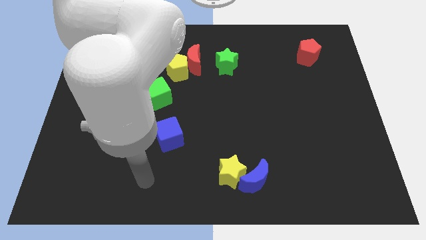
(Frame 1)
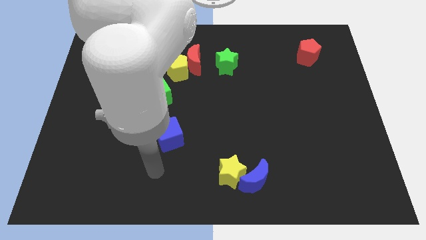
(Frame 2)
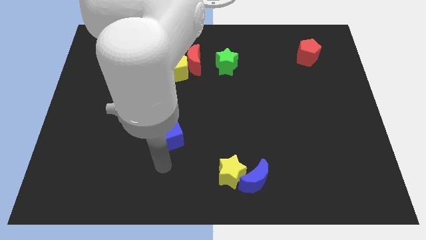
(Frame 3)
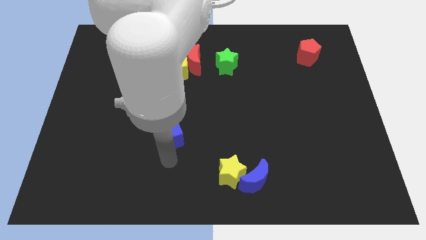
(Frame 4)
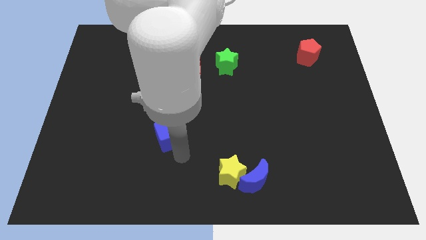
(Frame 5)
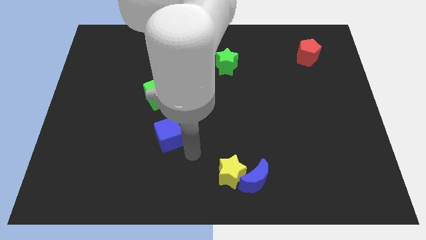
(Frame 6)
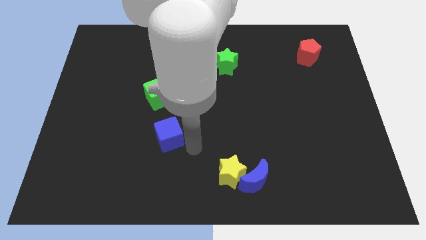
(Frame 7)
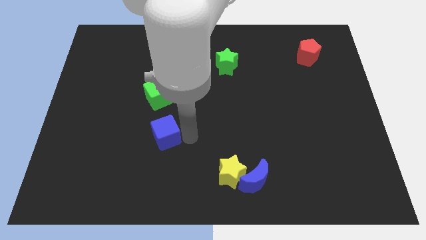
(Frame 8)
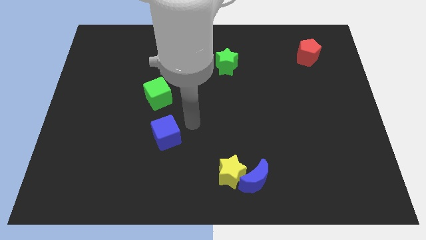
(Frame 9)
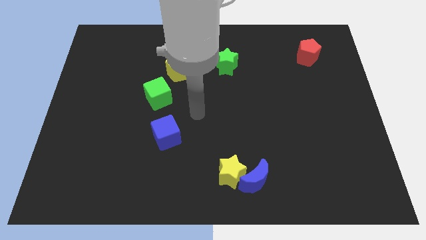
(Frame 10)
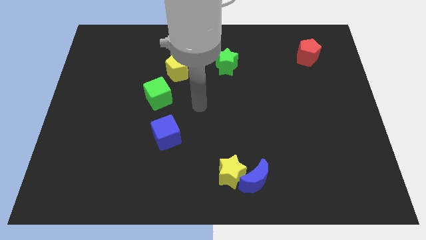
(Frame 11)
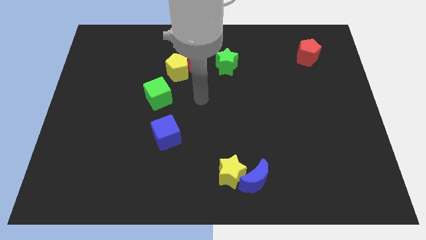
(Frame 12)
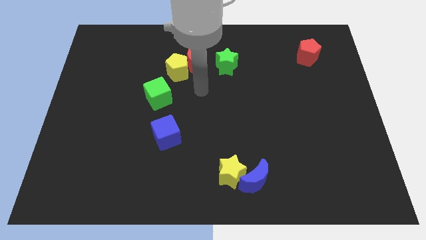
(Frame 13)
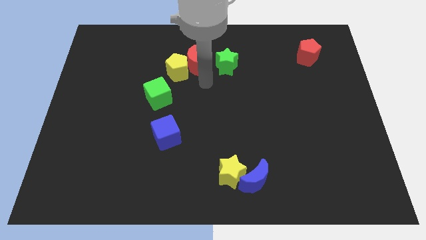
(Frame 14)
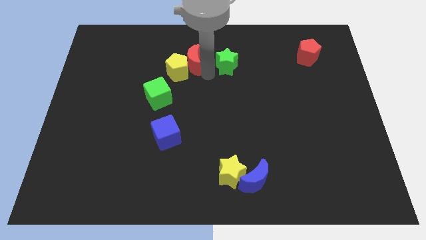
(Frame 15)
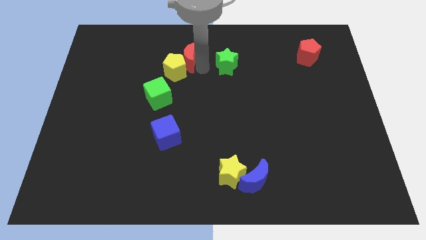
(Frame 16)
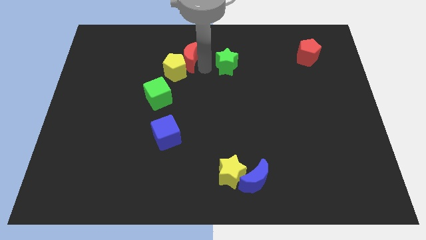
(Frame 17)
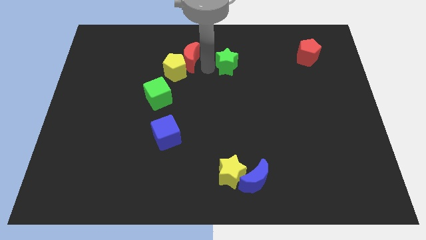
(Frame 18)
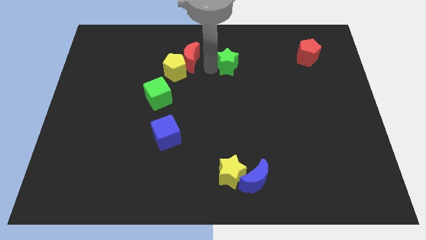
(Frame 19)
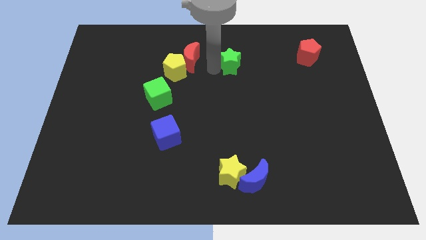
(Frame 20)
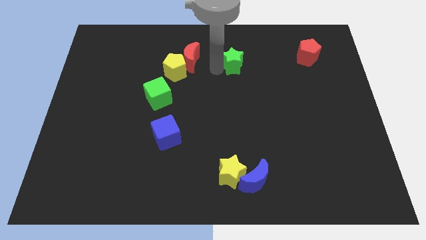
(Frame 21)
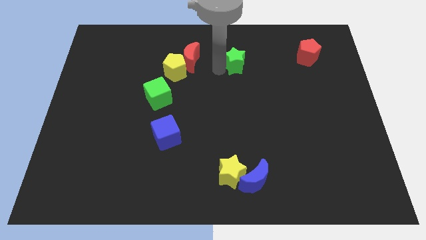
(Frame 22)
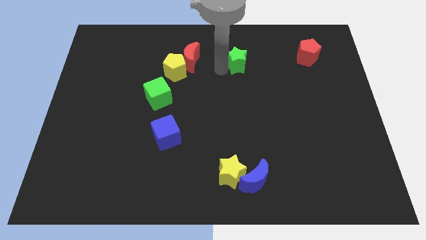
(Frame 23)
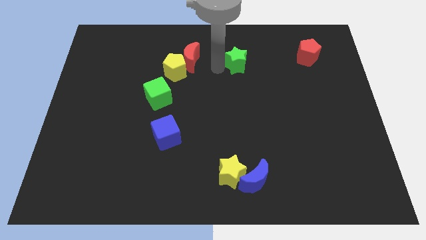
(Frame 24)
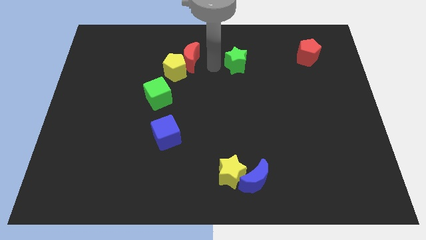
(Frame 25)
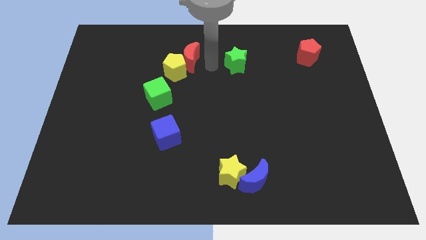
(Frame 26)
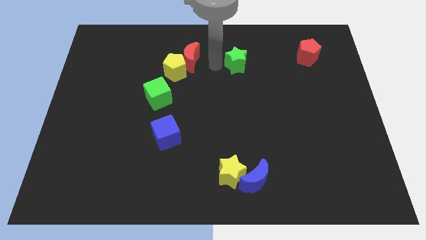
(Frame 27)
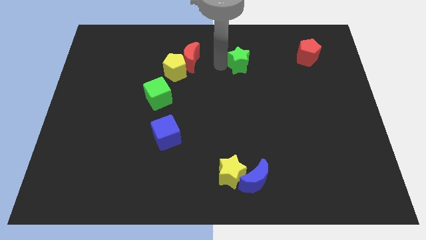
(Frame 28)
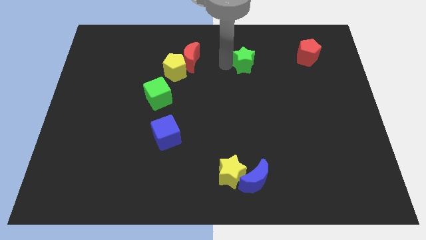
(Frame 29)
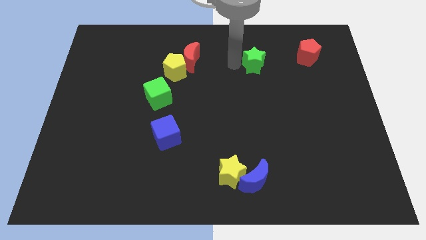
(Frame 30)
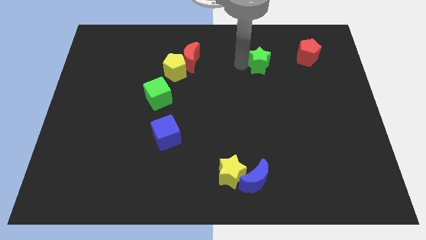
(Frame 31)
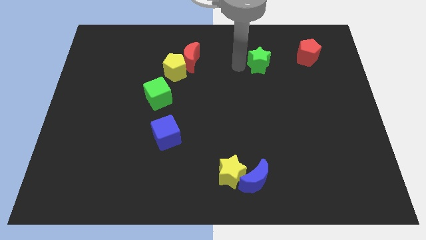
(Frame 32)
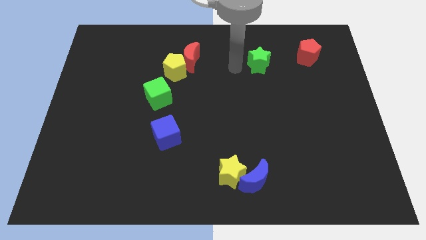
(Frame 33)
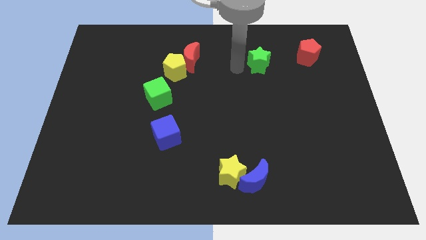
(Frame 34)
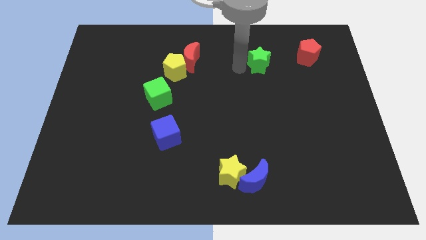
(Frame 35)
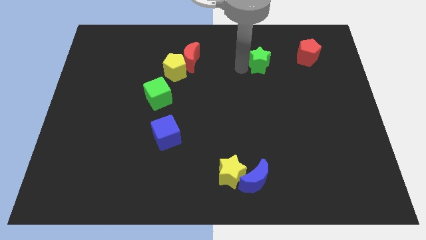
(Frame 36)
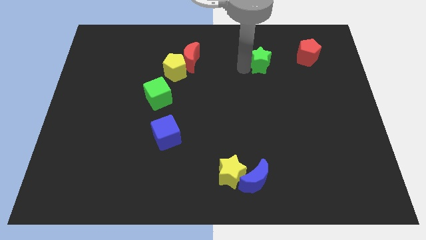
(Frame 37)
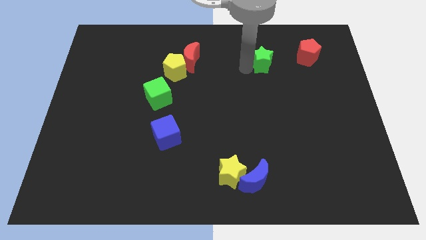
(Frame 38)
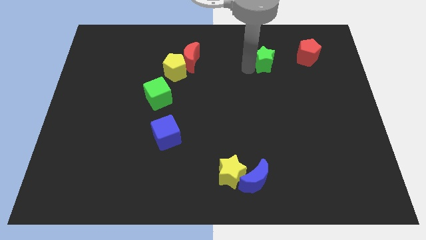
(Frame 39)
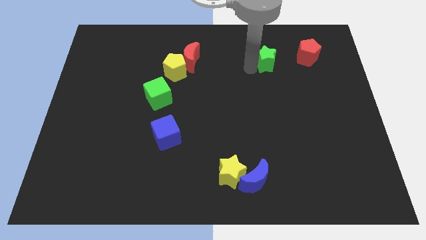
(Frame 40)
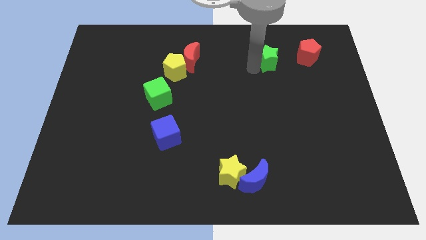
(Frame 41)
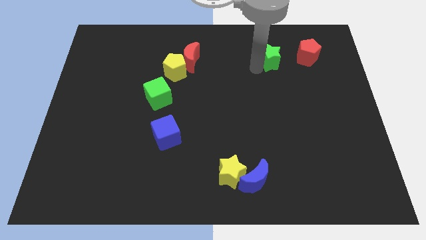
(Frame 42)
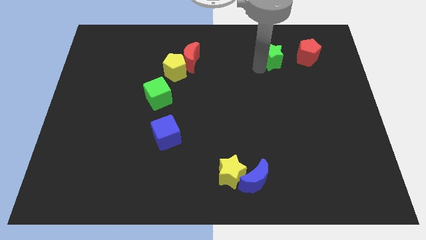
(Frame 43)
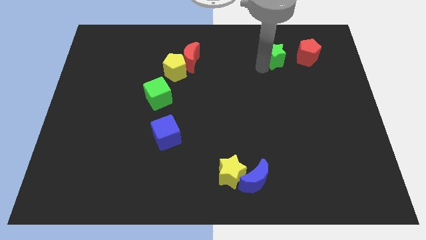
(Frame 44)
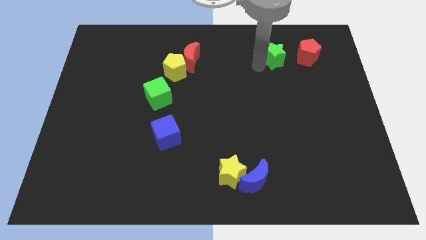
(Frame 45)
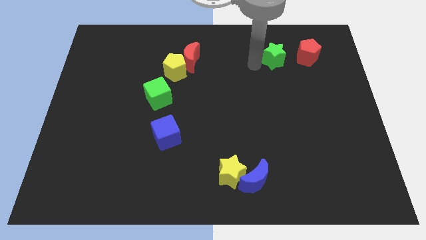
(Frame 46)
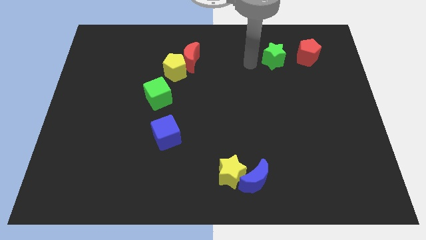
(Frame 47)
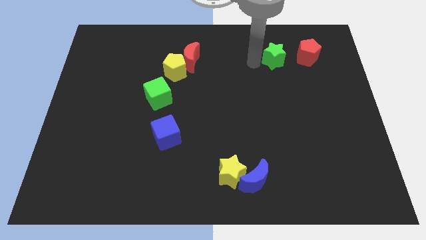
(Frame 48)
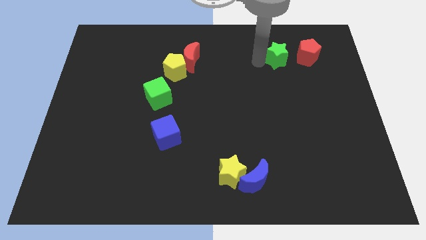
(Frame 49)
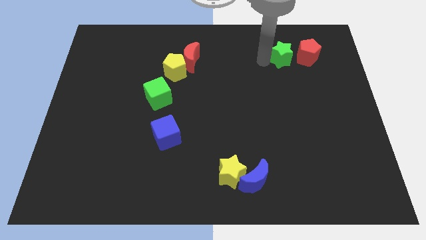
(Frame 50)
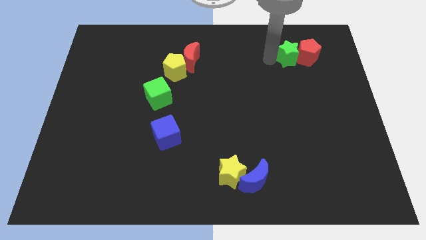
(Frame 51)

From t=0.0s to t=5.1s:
put the green star towards the red pentagon

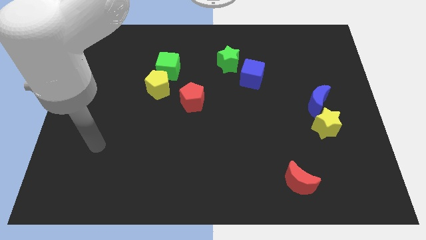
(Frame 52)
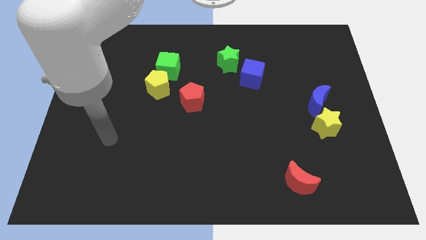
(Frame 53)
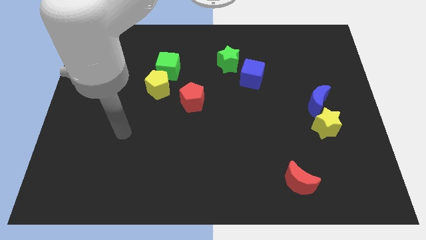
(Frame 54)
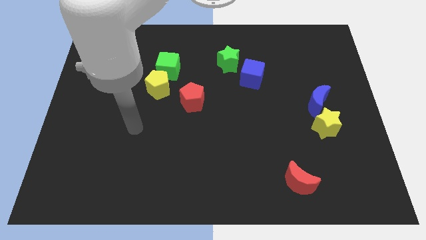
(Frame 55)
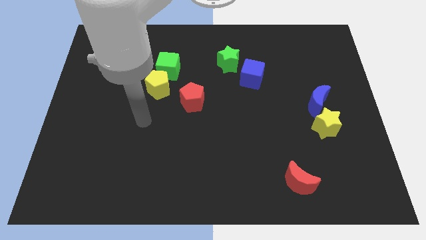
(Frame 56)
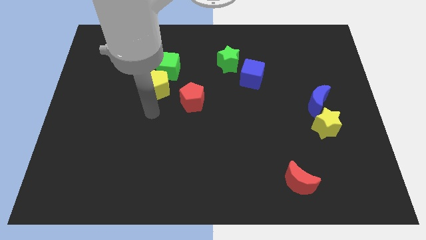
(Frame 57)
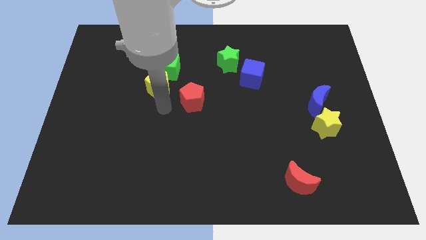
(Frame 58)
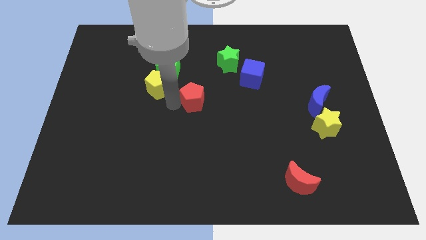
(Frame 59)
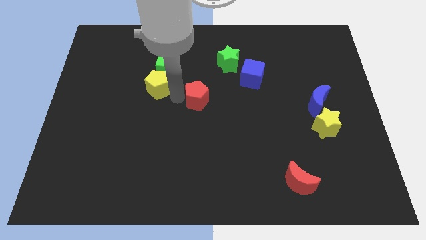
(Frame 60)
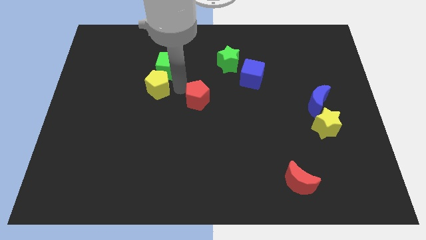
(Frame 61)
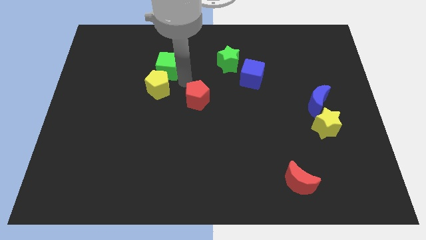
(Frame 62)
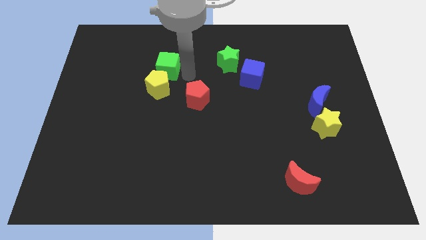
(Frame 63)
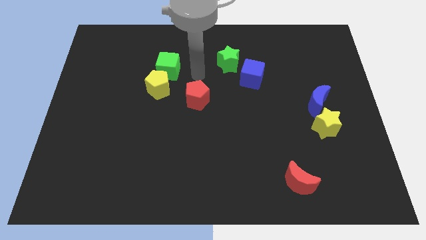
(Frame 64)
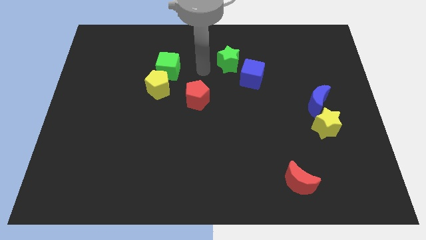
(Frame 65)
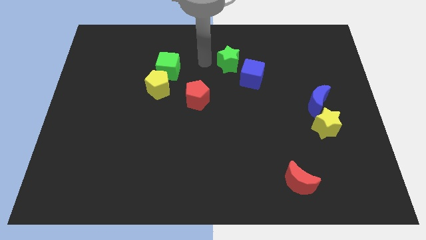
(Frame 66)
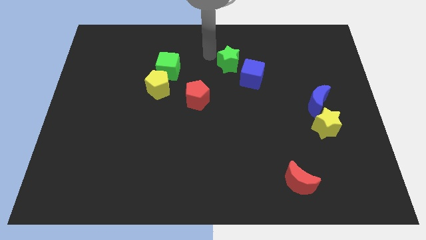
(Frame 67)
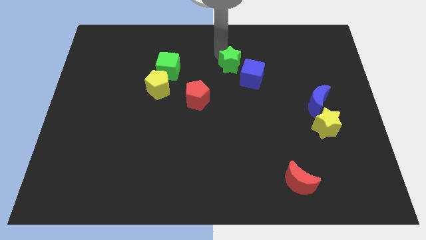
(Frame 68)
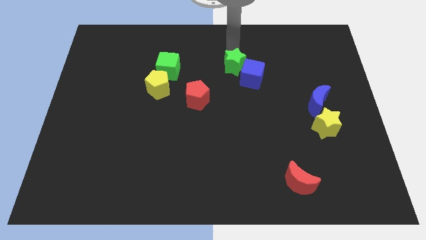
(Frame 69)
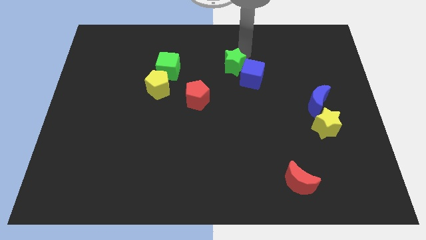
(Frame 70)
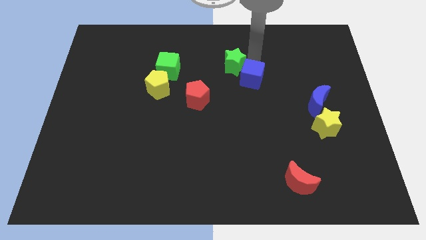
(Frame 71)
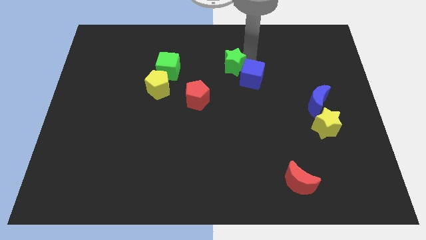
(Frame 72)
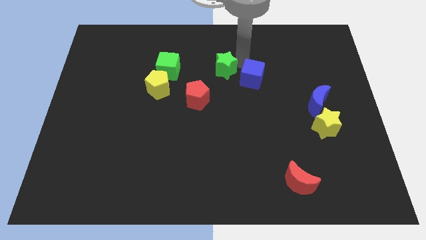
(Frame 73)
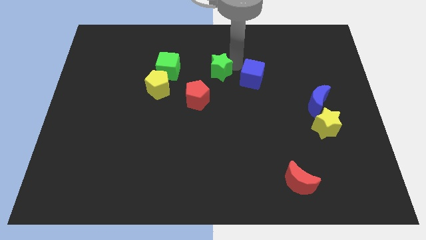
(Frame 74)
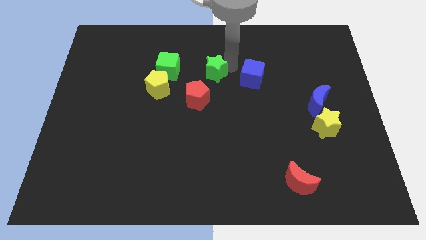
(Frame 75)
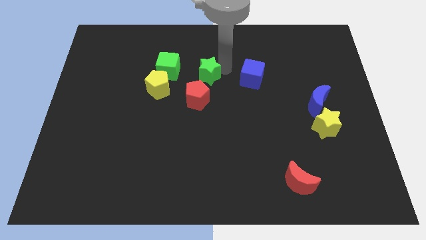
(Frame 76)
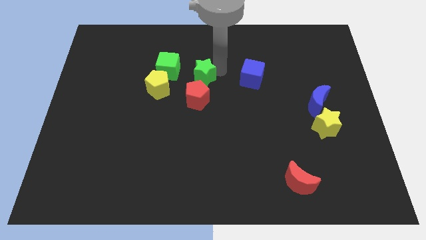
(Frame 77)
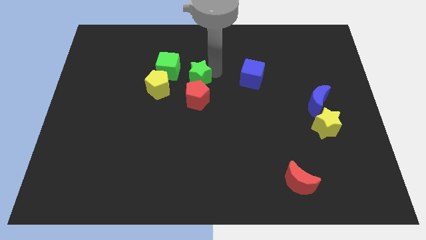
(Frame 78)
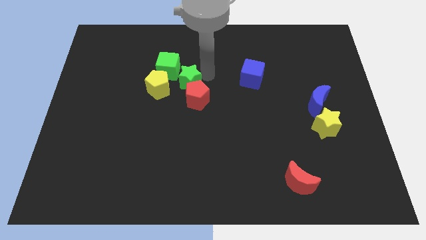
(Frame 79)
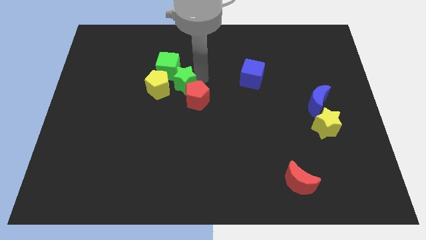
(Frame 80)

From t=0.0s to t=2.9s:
slide the green star to the yellow pentagon
